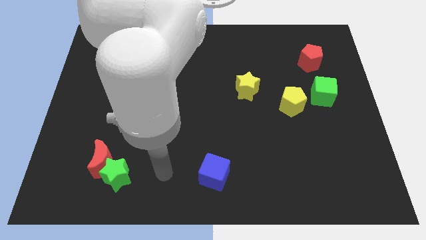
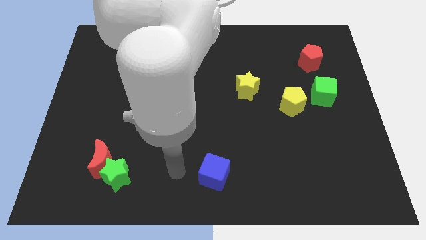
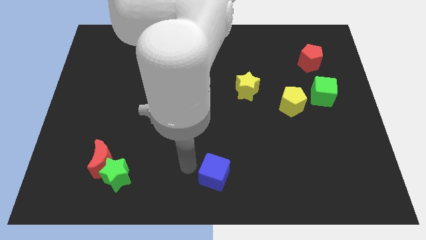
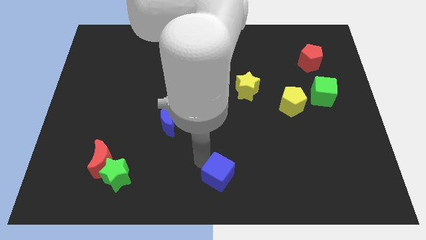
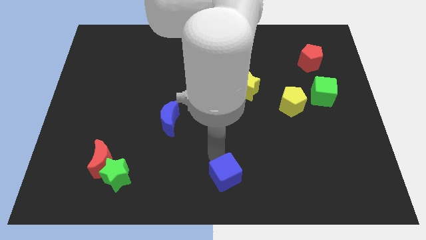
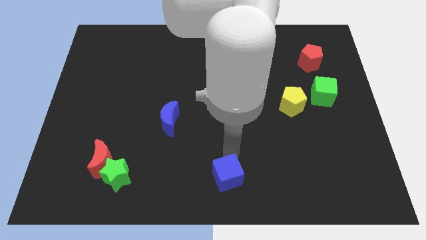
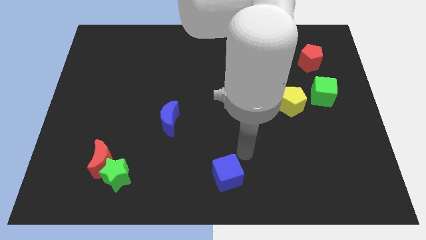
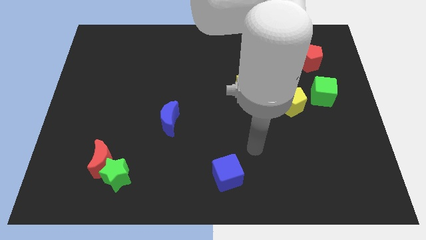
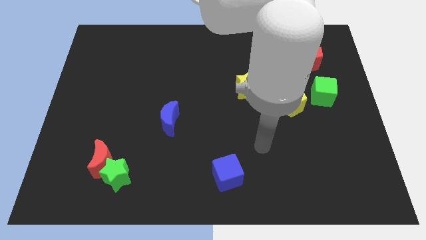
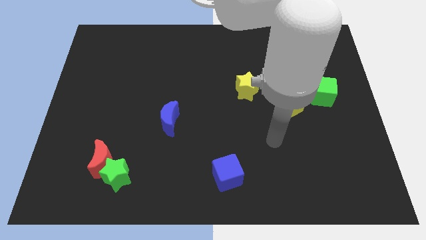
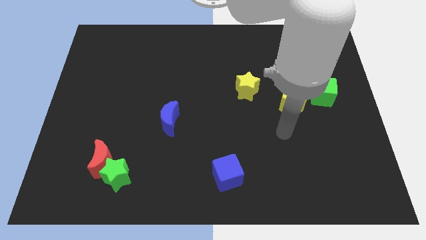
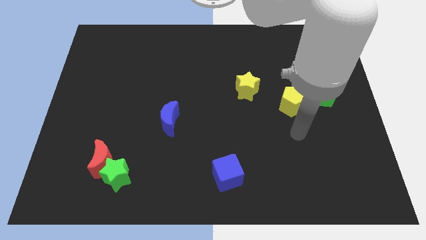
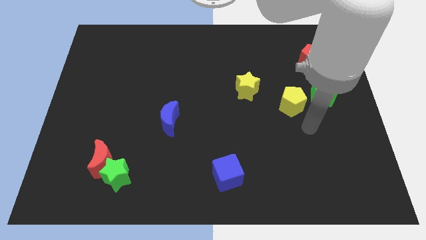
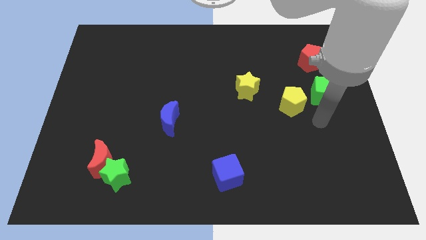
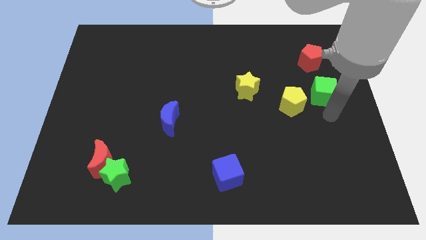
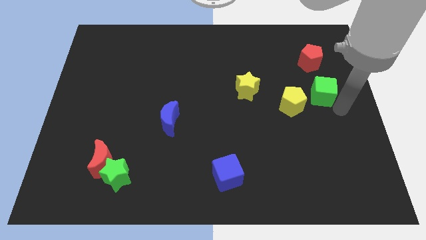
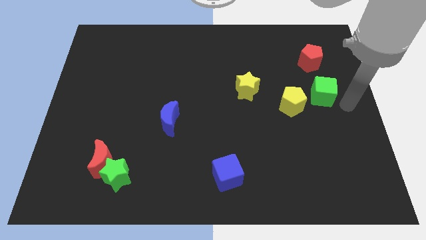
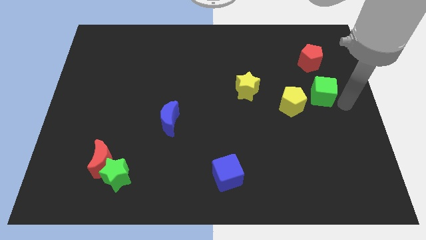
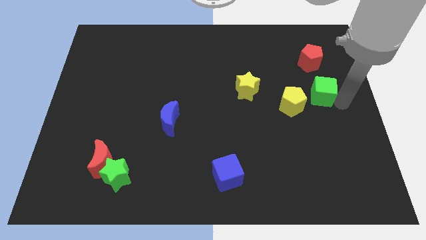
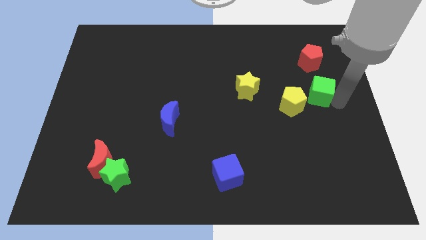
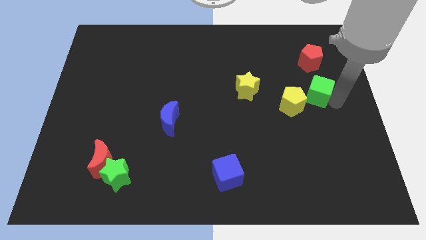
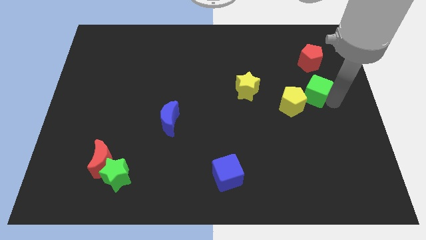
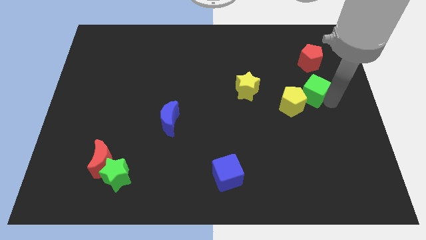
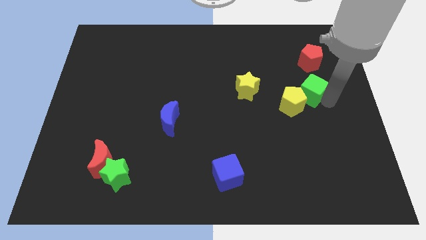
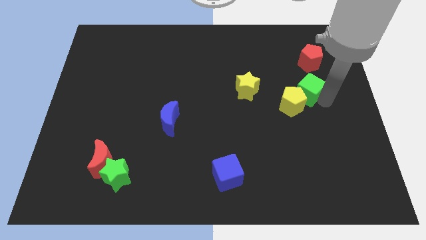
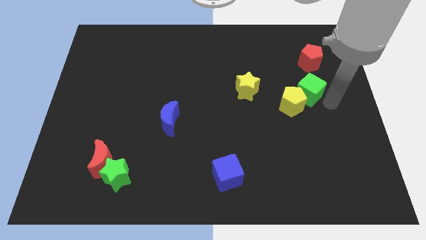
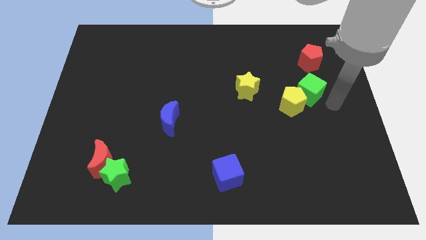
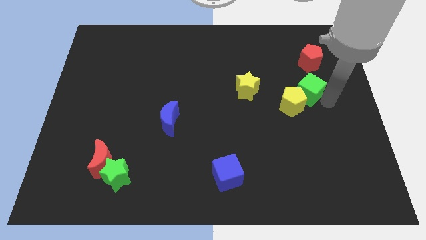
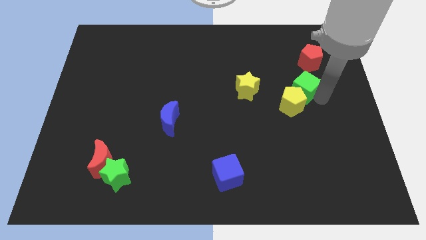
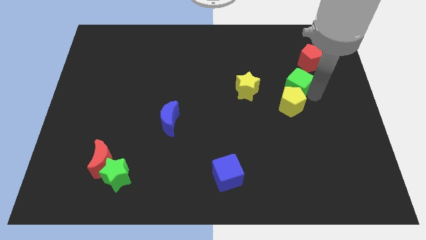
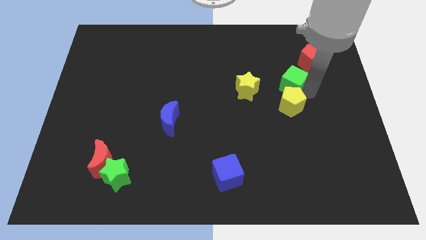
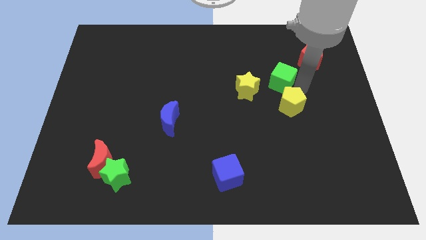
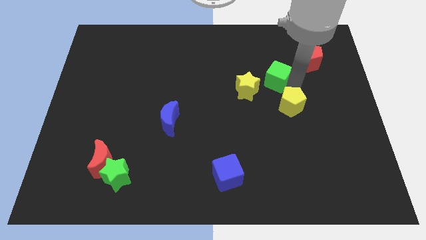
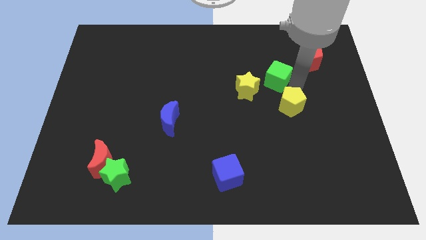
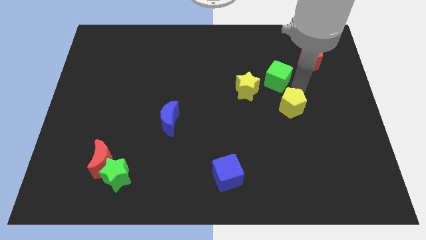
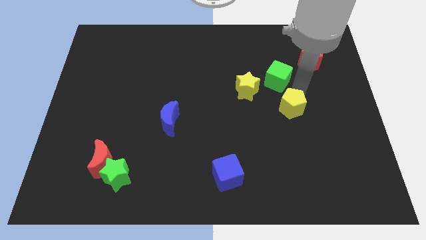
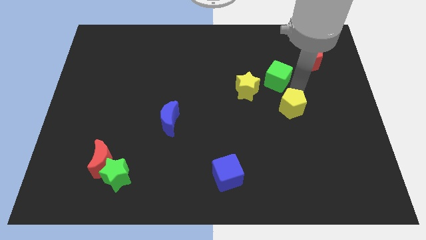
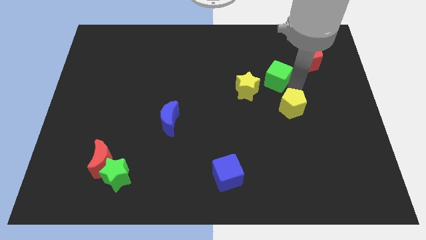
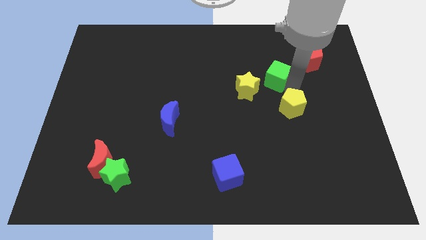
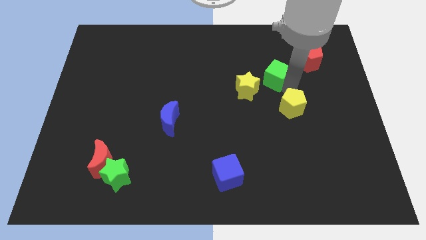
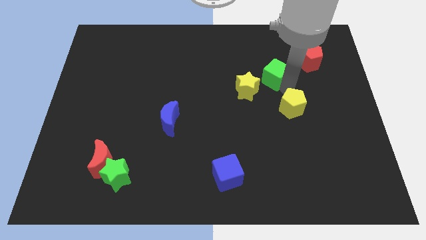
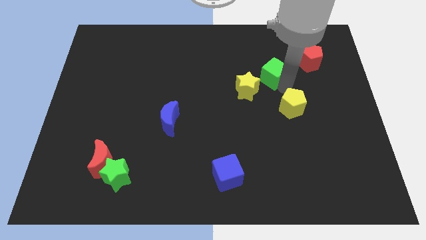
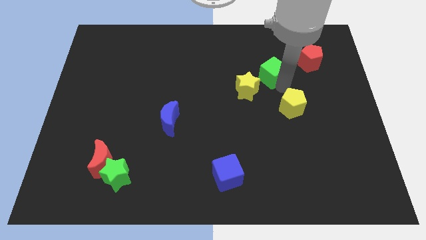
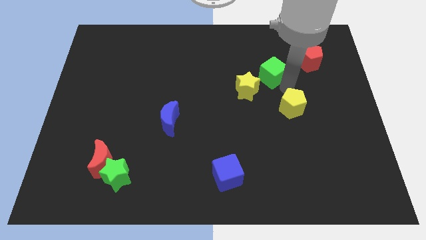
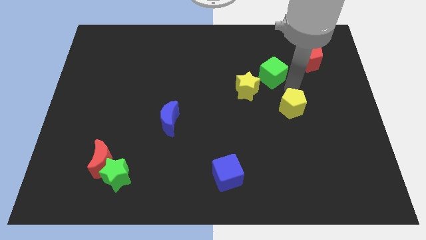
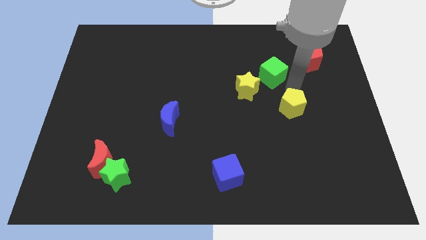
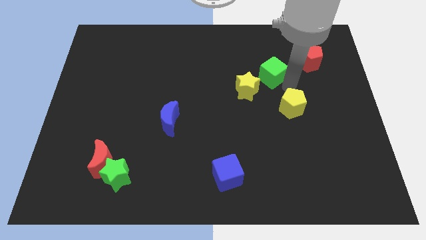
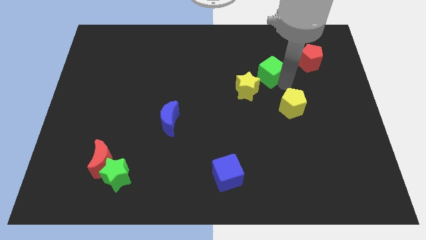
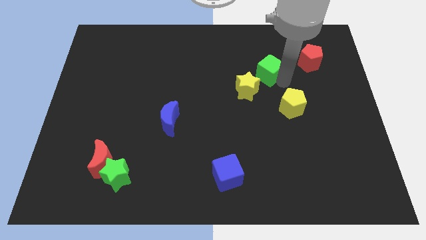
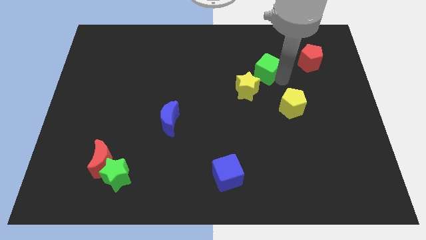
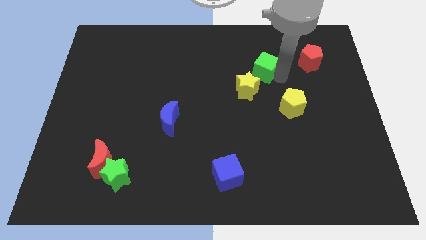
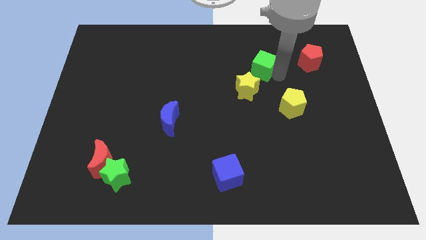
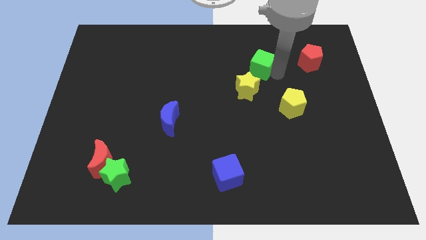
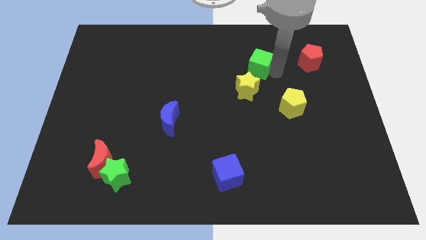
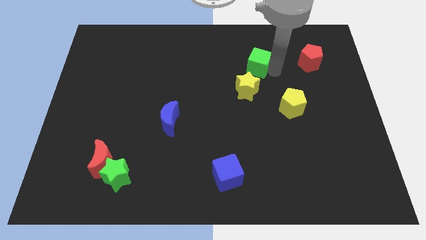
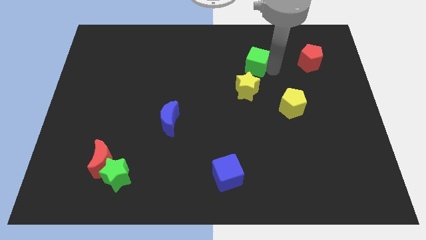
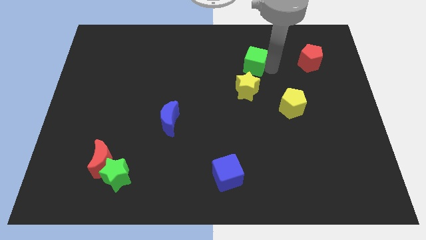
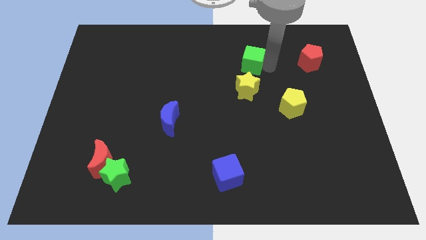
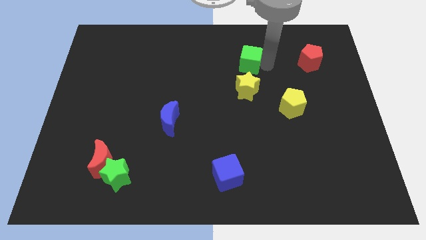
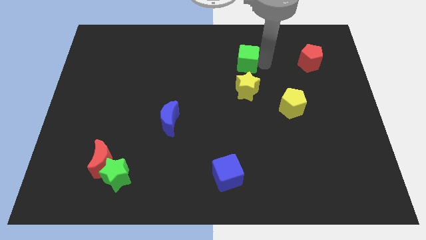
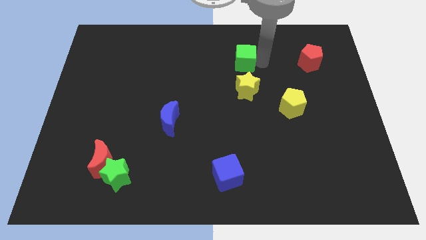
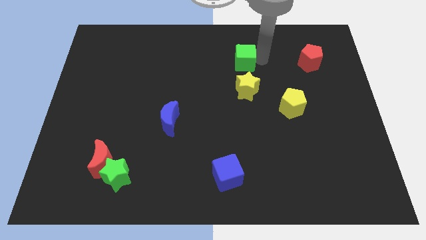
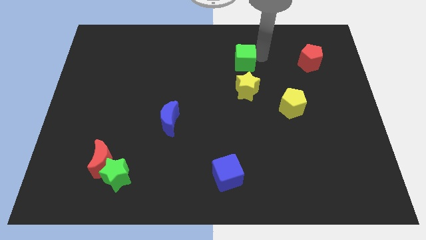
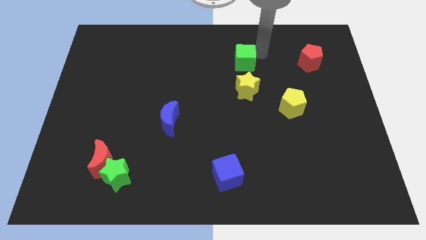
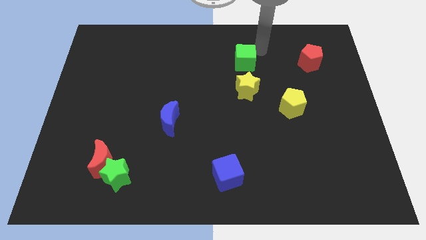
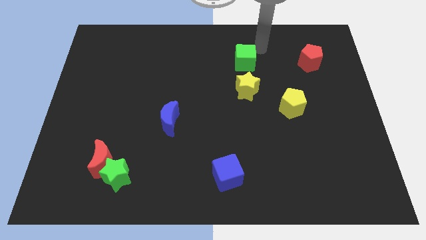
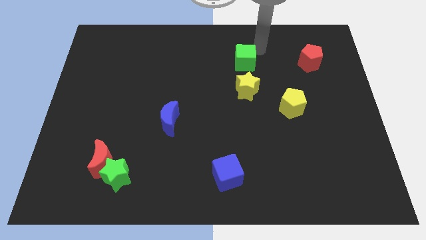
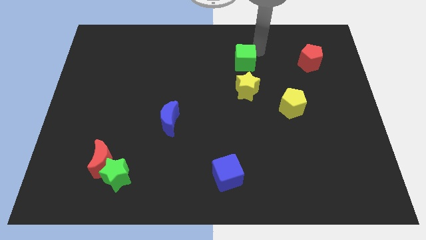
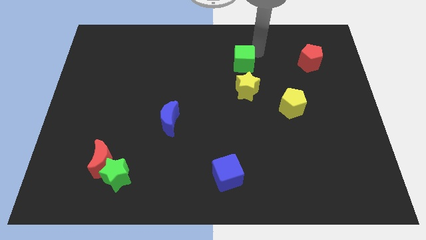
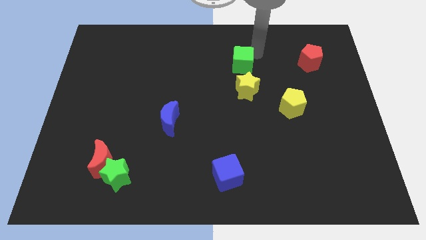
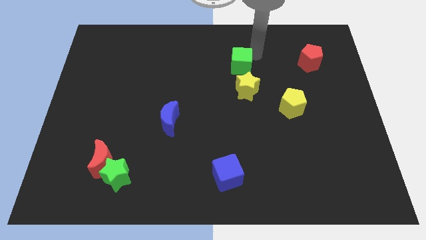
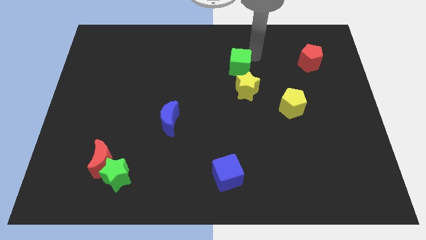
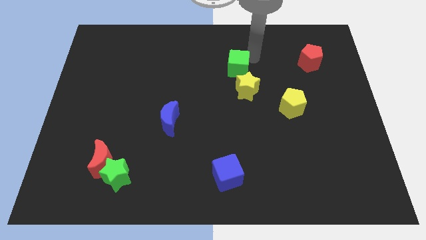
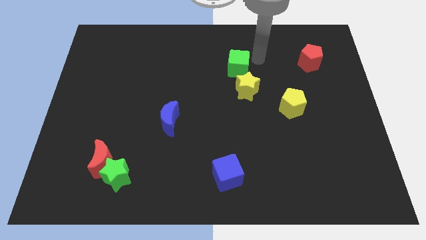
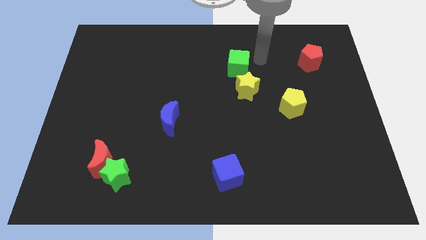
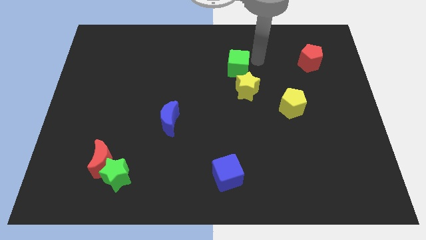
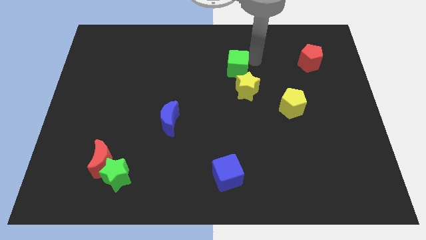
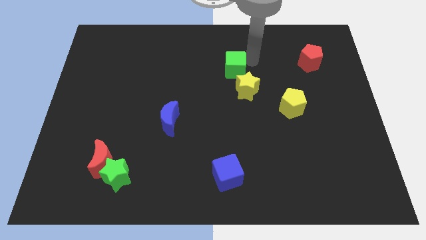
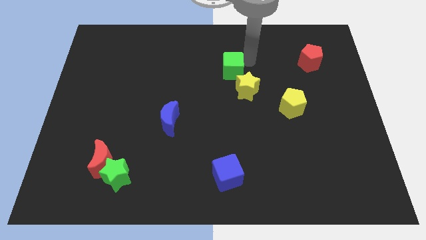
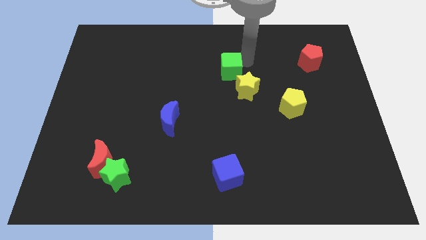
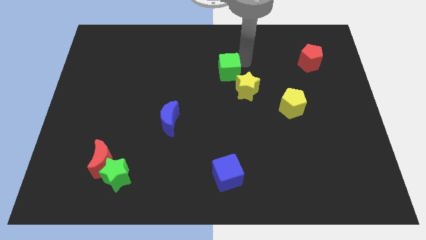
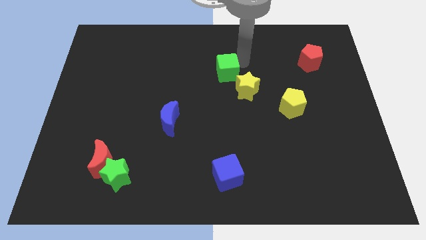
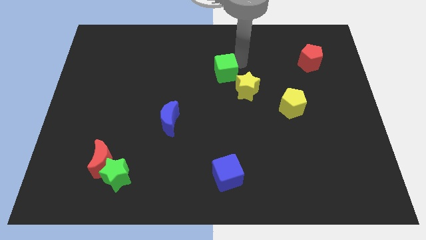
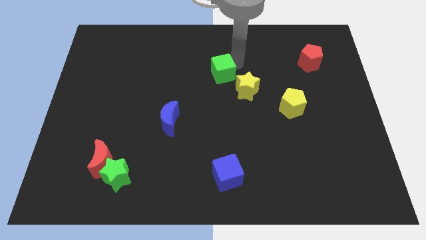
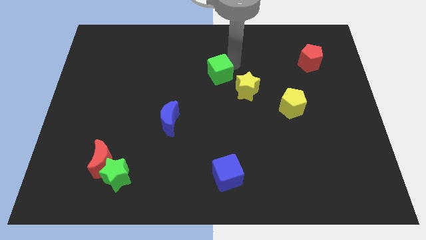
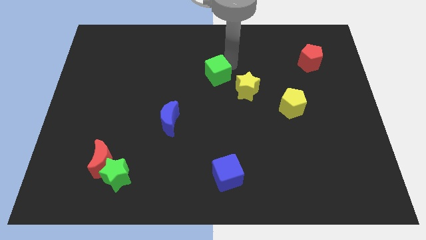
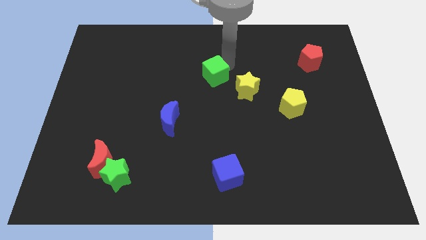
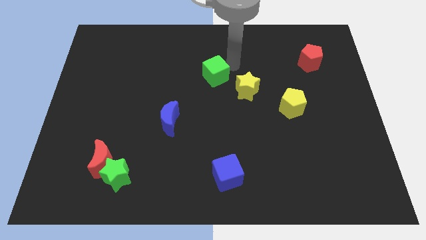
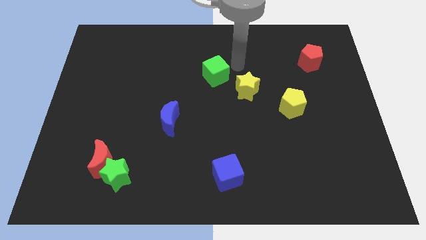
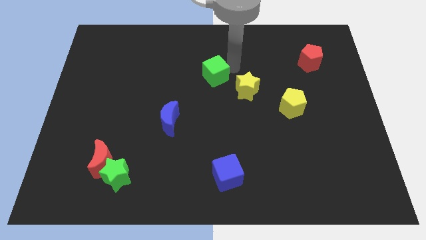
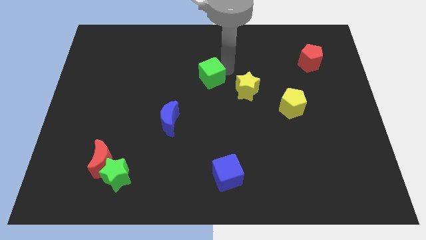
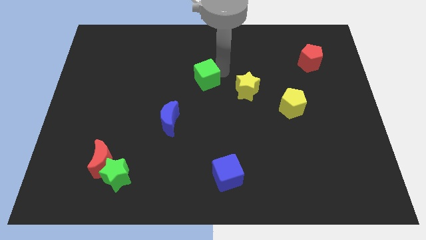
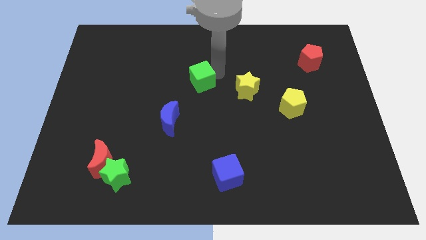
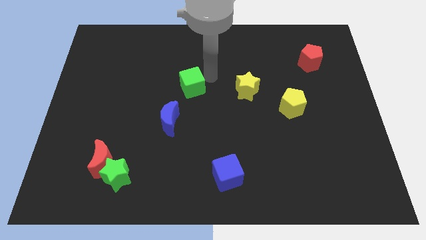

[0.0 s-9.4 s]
push the green cube to the top side of the blue moon
